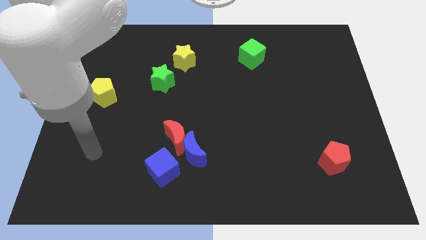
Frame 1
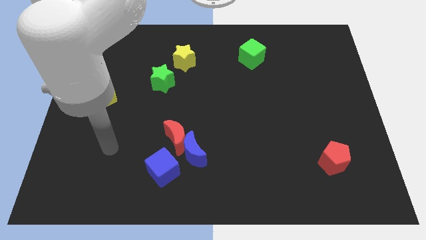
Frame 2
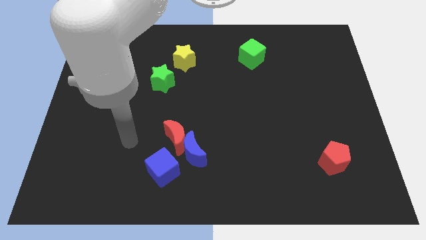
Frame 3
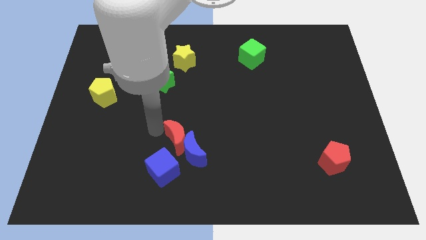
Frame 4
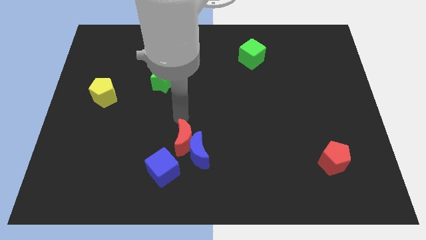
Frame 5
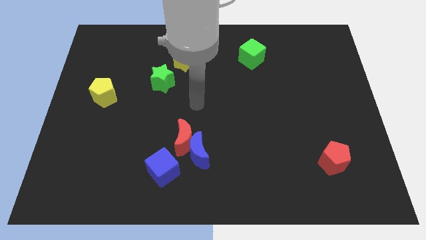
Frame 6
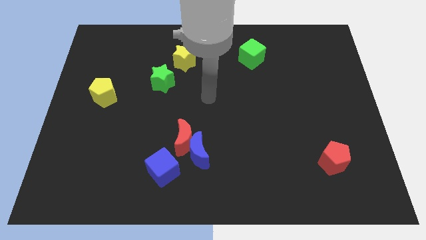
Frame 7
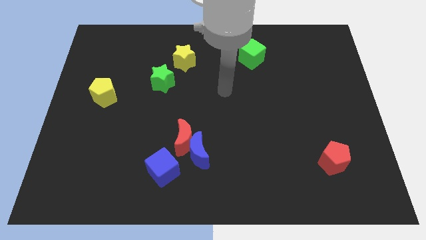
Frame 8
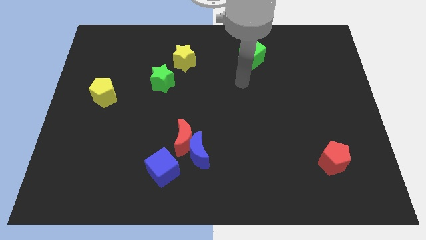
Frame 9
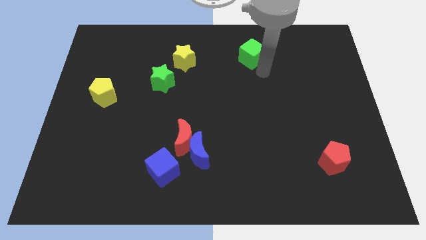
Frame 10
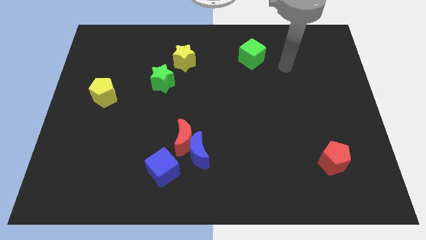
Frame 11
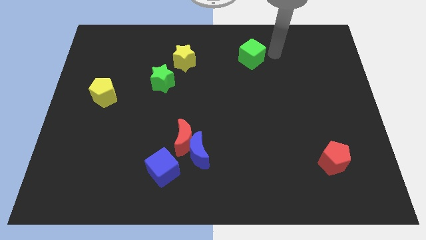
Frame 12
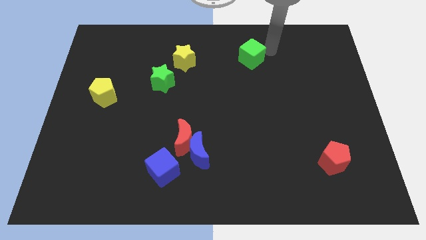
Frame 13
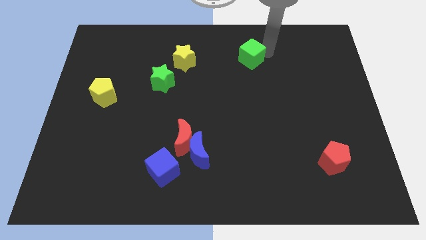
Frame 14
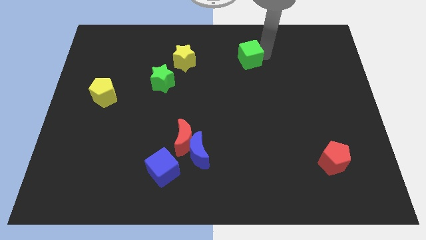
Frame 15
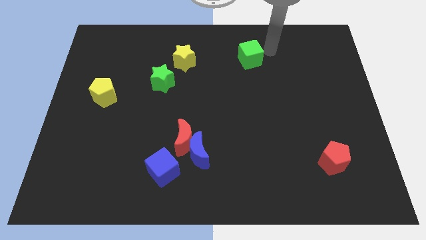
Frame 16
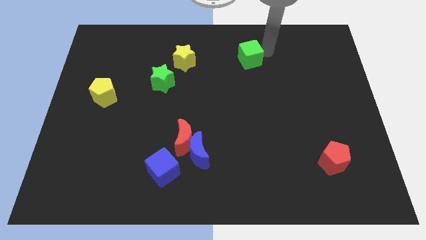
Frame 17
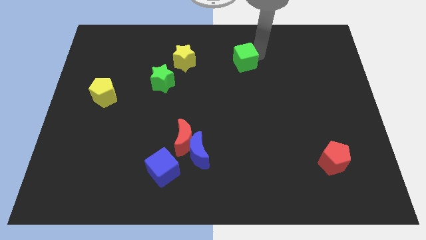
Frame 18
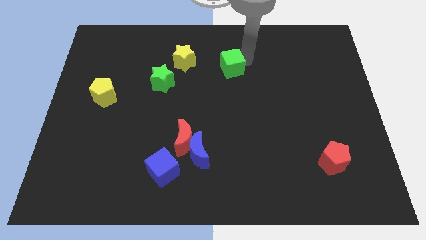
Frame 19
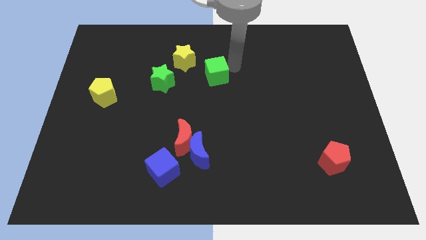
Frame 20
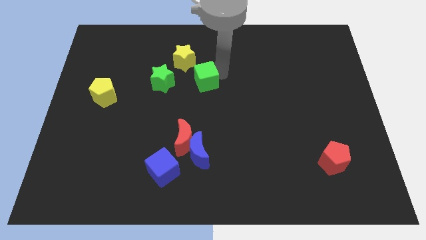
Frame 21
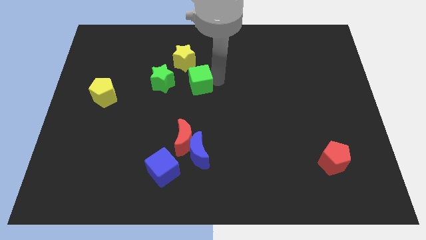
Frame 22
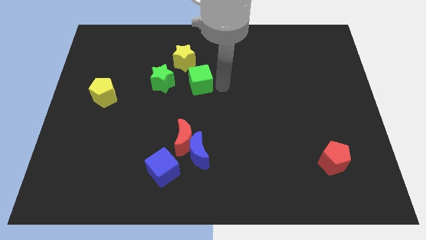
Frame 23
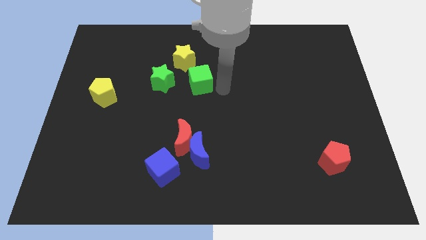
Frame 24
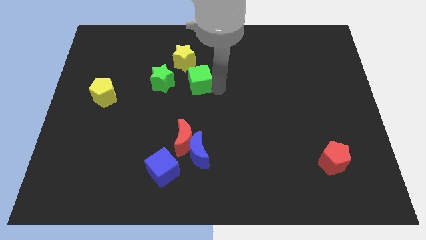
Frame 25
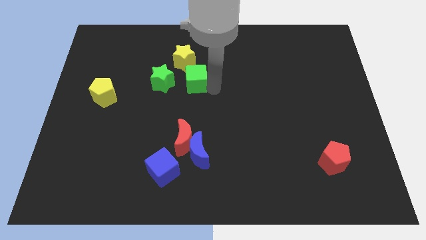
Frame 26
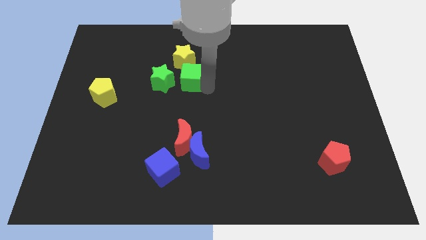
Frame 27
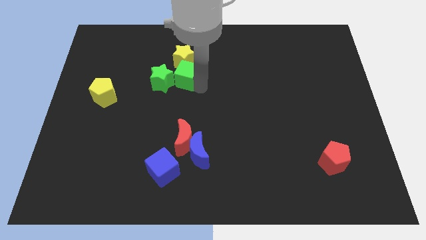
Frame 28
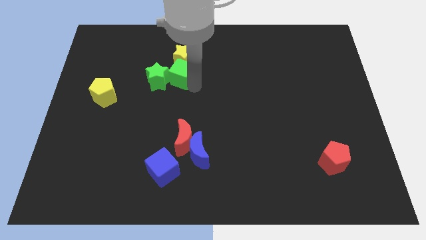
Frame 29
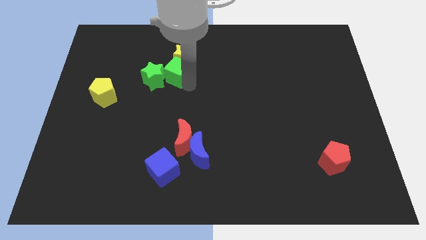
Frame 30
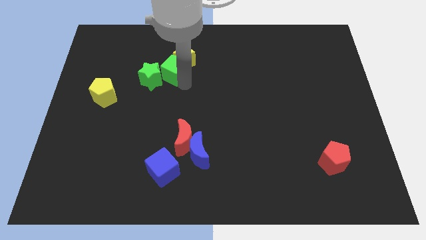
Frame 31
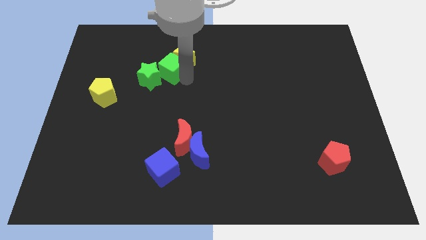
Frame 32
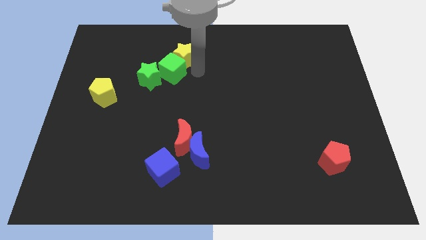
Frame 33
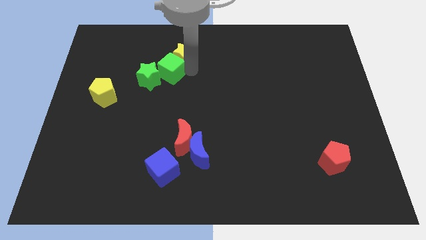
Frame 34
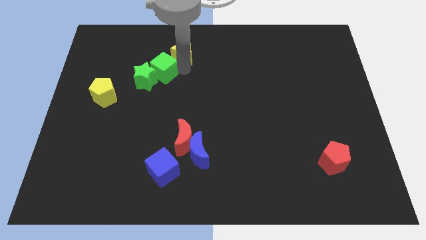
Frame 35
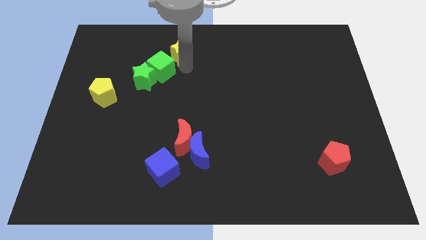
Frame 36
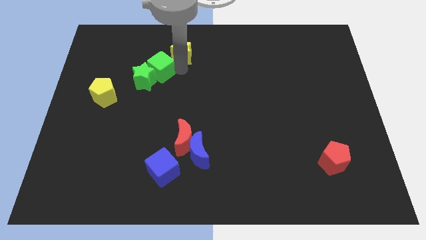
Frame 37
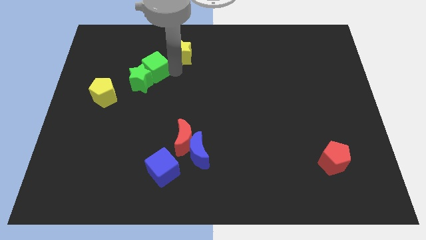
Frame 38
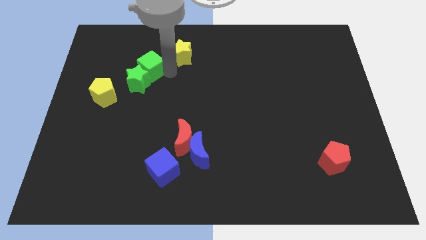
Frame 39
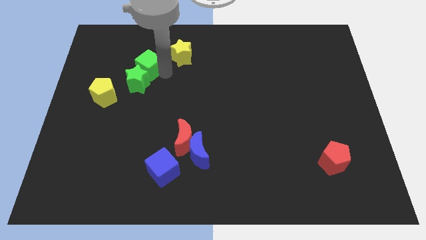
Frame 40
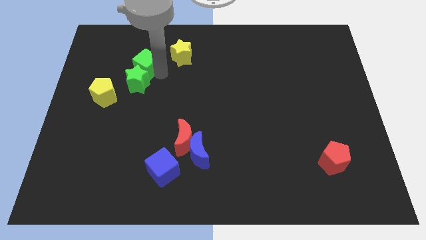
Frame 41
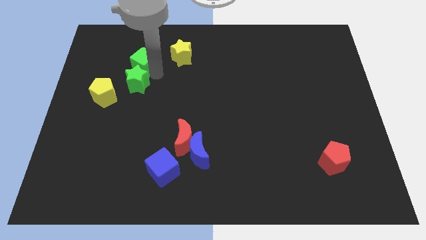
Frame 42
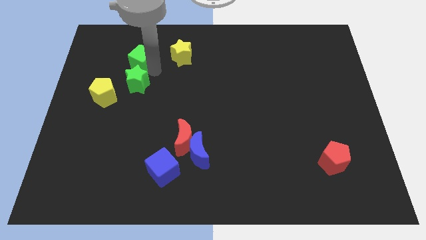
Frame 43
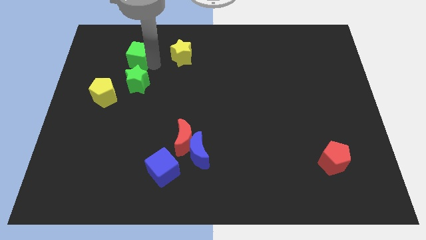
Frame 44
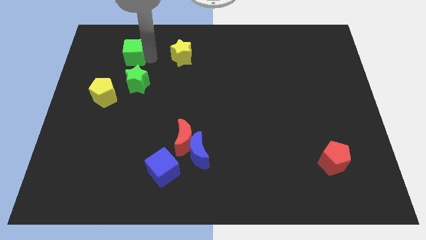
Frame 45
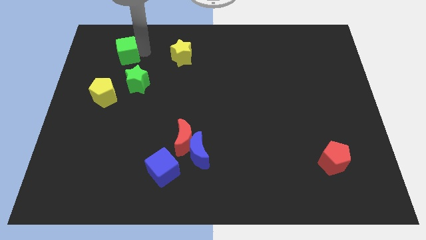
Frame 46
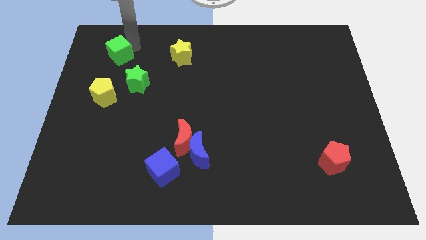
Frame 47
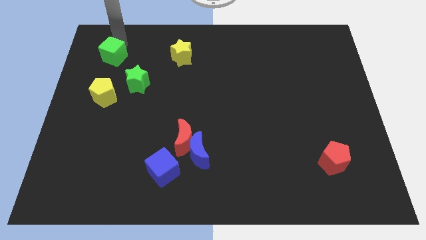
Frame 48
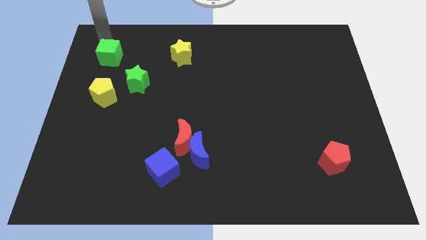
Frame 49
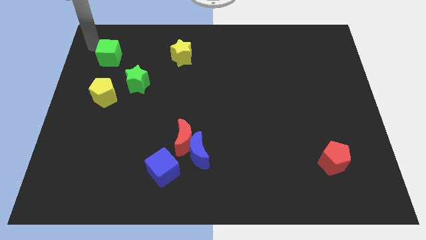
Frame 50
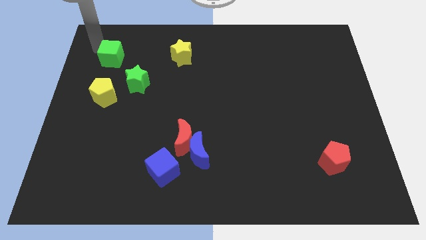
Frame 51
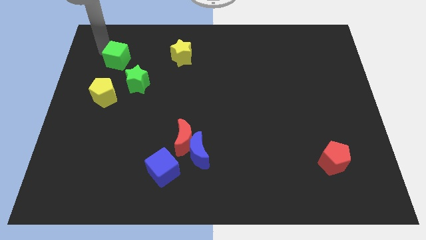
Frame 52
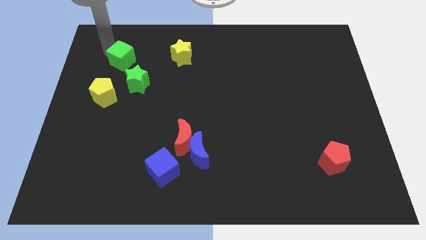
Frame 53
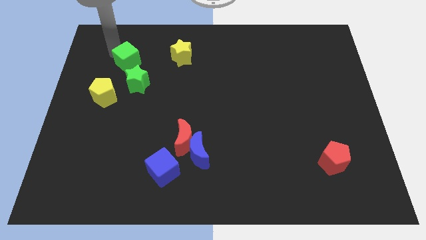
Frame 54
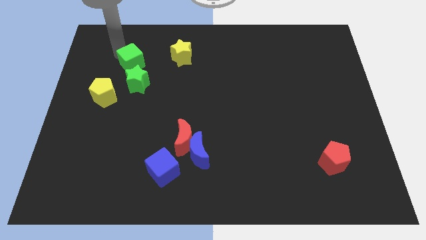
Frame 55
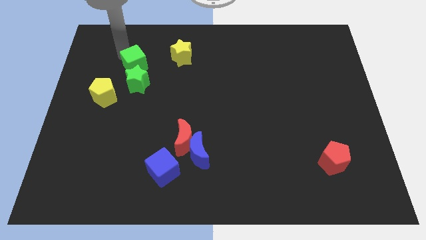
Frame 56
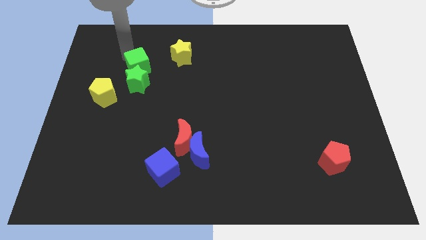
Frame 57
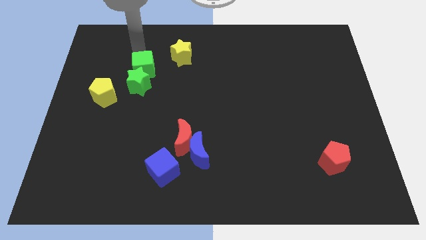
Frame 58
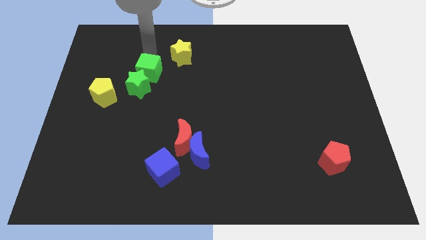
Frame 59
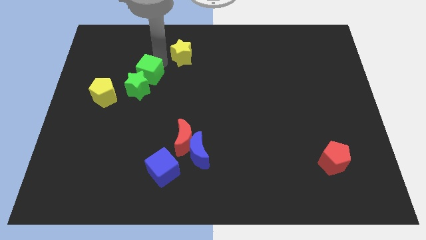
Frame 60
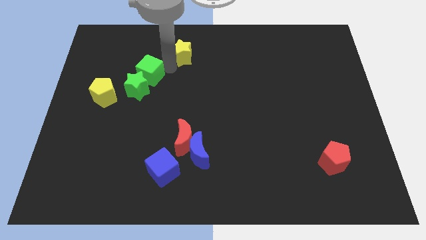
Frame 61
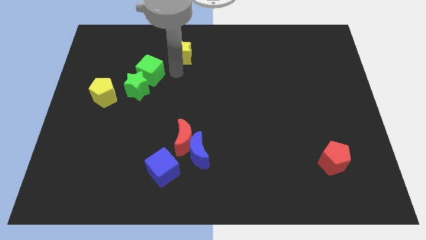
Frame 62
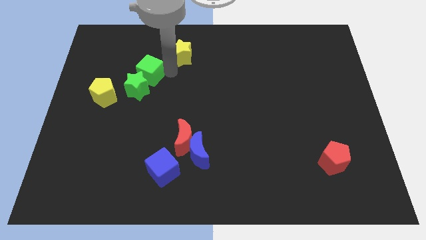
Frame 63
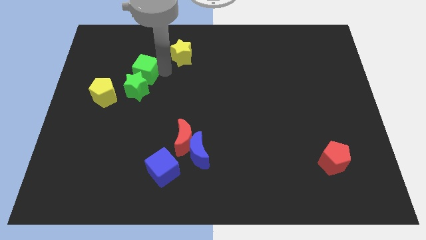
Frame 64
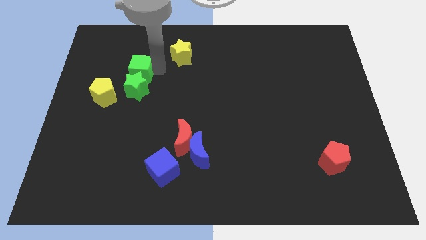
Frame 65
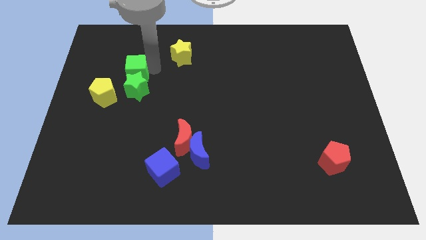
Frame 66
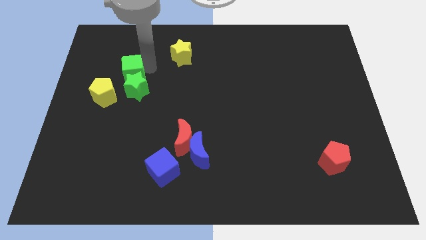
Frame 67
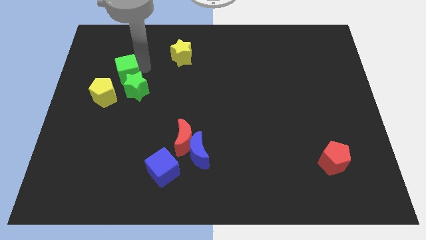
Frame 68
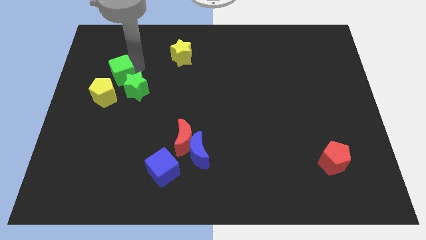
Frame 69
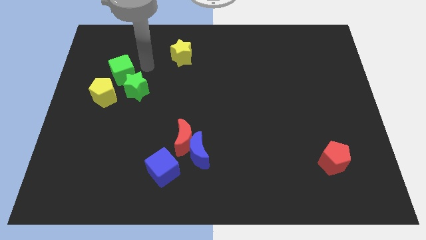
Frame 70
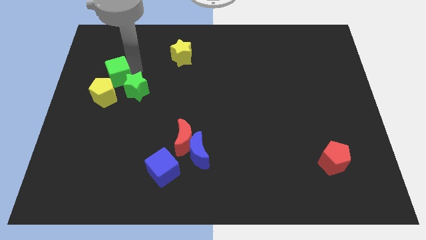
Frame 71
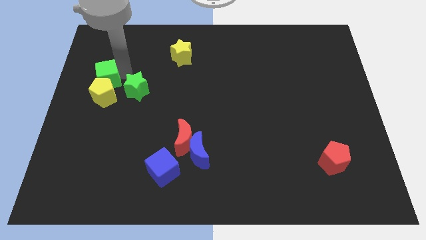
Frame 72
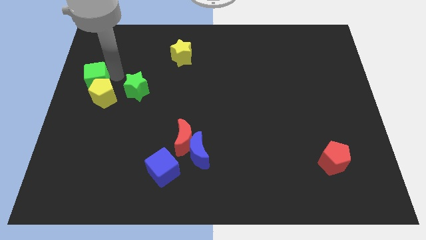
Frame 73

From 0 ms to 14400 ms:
move the green cube to the left side

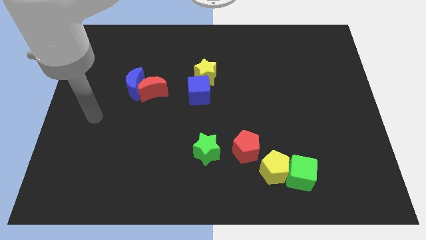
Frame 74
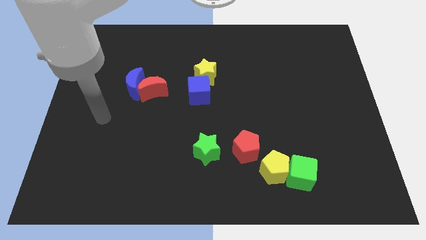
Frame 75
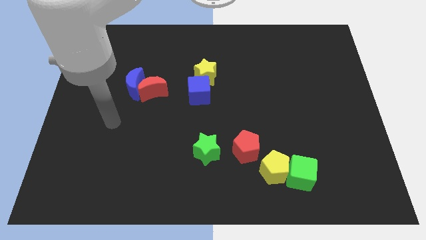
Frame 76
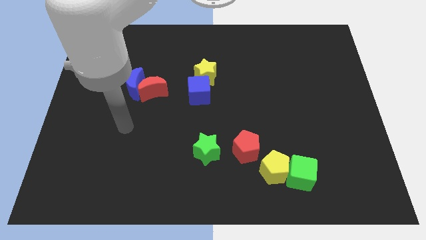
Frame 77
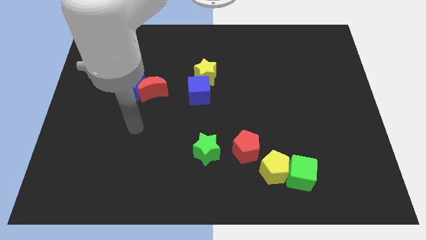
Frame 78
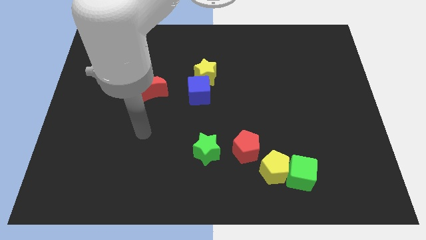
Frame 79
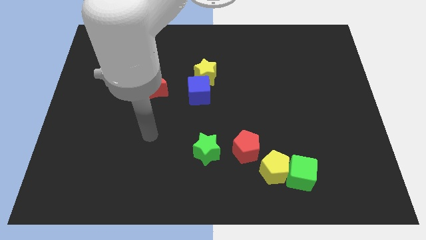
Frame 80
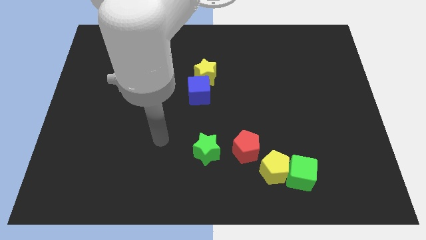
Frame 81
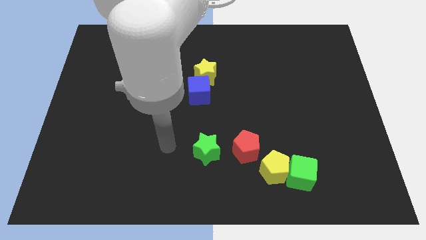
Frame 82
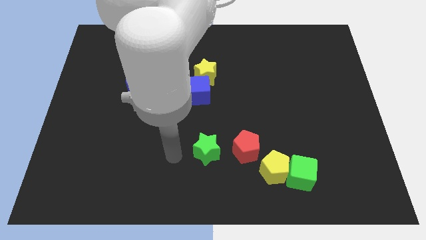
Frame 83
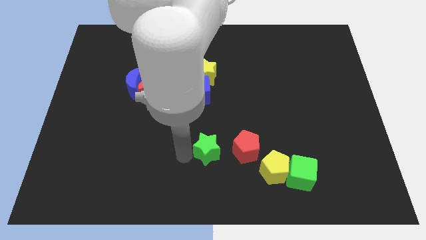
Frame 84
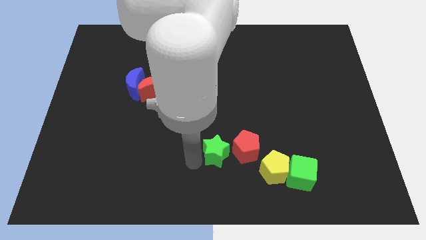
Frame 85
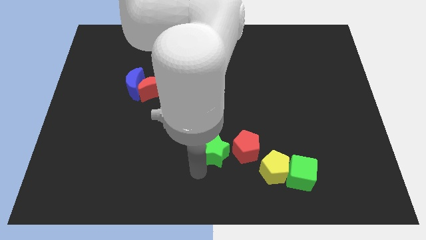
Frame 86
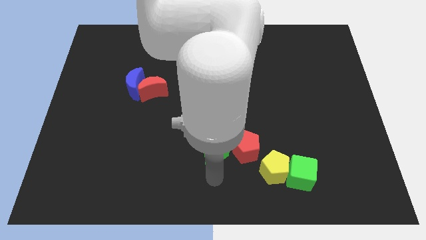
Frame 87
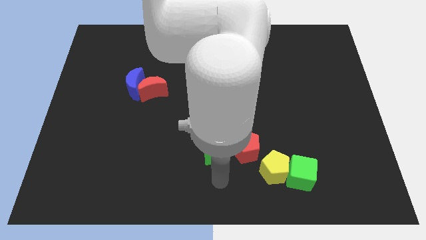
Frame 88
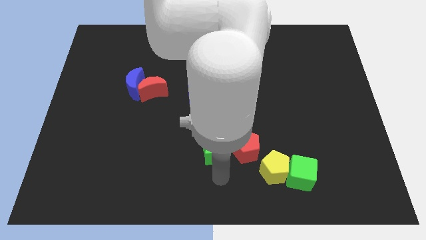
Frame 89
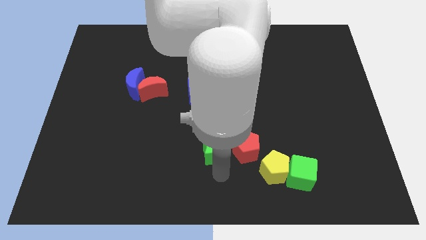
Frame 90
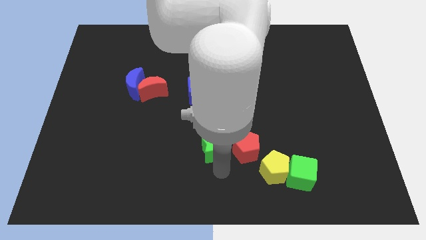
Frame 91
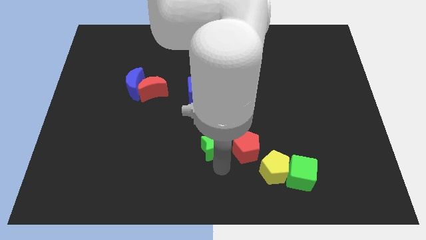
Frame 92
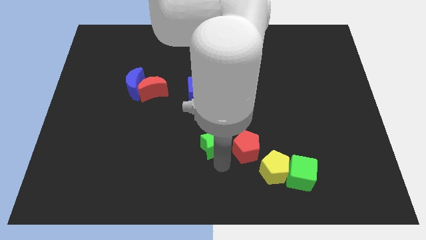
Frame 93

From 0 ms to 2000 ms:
move the green star to the middle
